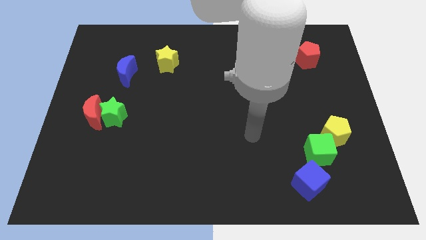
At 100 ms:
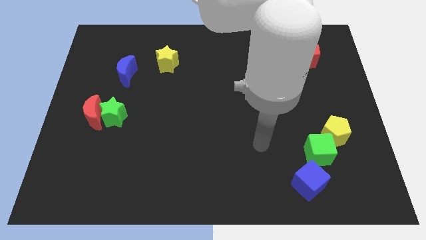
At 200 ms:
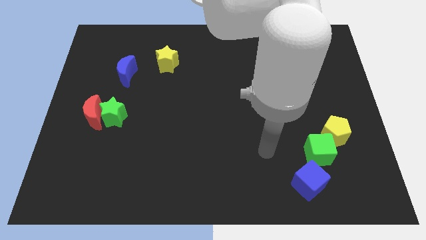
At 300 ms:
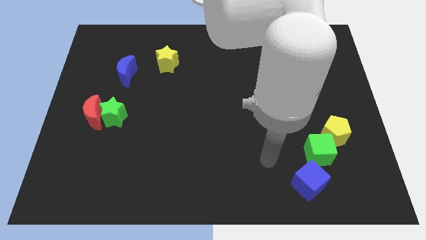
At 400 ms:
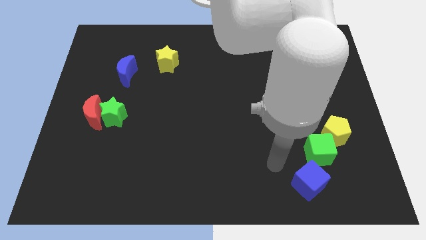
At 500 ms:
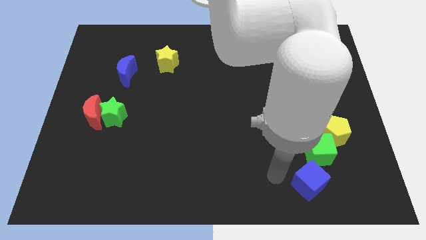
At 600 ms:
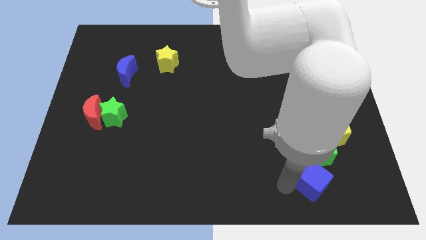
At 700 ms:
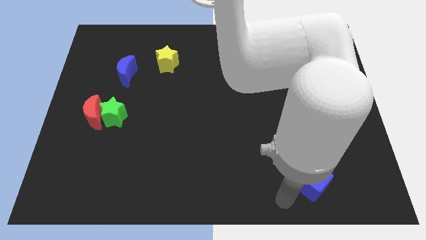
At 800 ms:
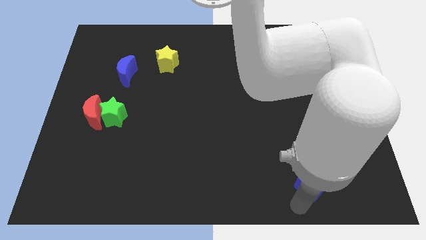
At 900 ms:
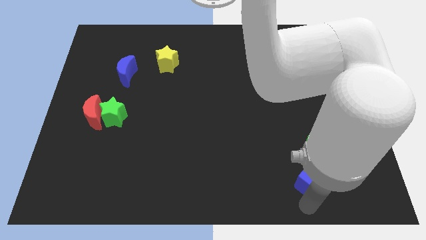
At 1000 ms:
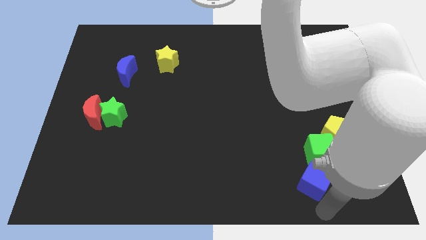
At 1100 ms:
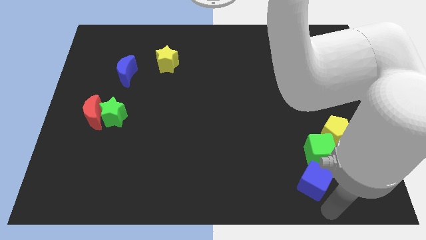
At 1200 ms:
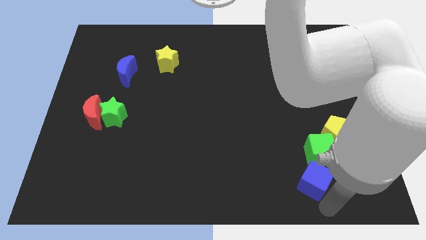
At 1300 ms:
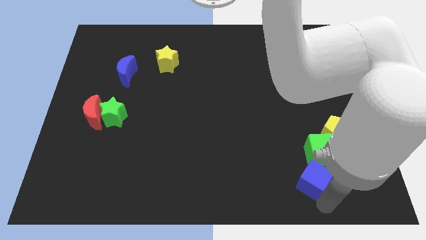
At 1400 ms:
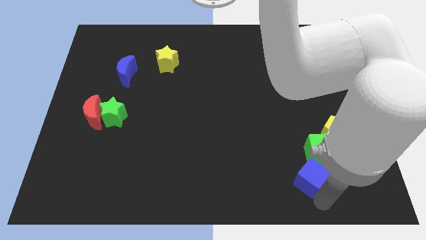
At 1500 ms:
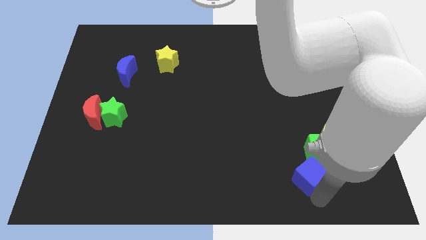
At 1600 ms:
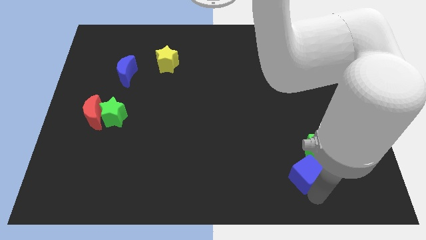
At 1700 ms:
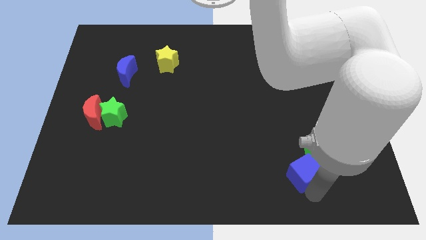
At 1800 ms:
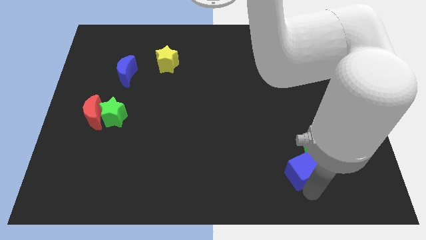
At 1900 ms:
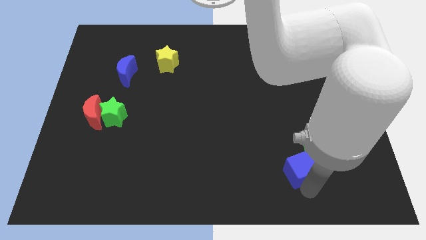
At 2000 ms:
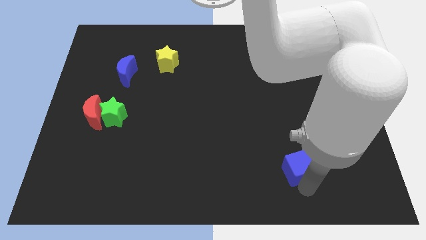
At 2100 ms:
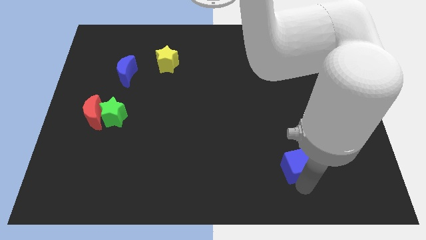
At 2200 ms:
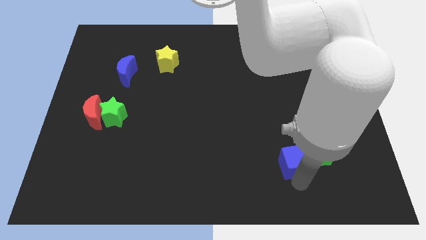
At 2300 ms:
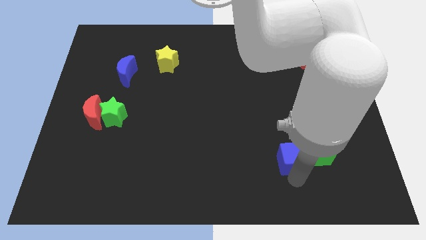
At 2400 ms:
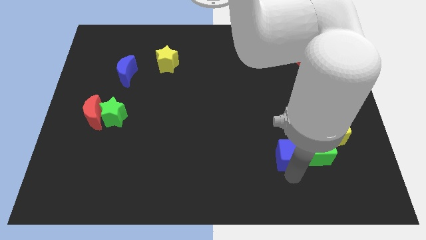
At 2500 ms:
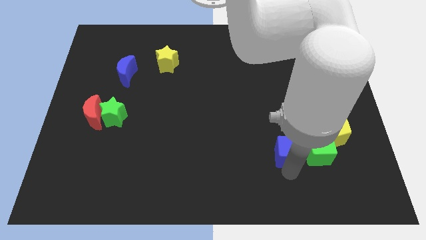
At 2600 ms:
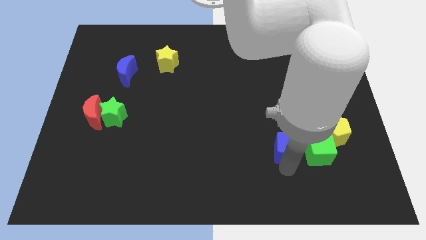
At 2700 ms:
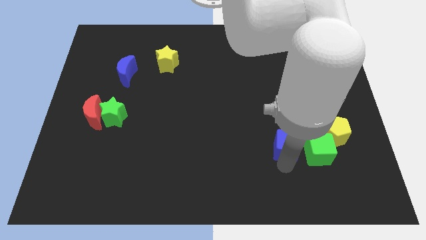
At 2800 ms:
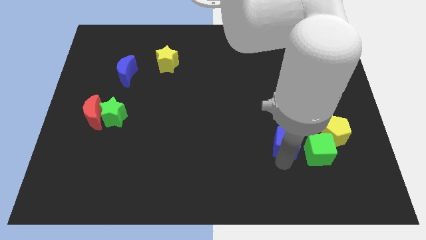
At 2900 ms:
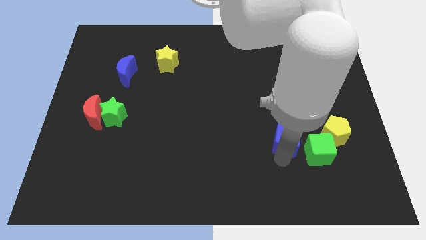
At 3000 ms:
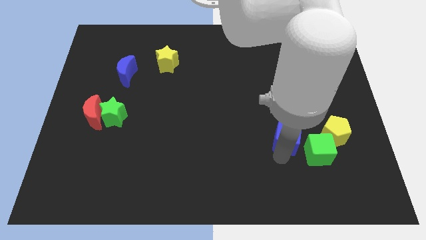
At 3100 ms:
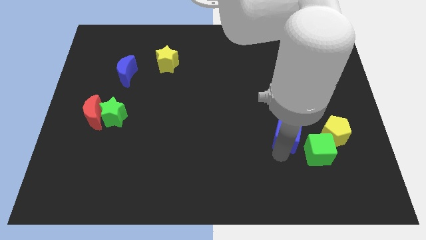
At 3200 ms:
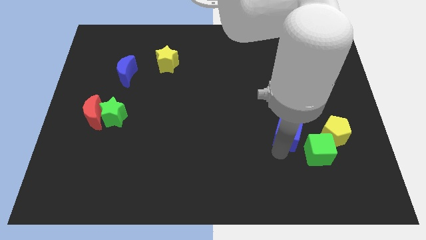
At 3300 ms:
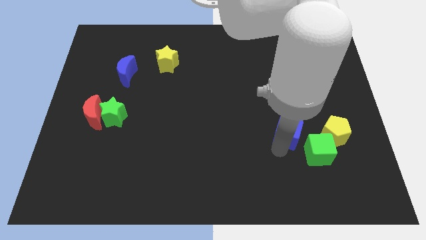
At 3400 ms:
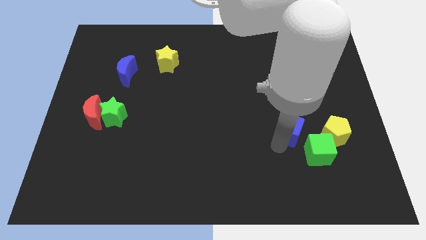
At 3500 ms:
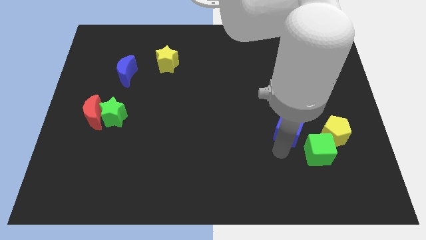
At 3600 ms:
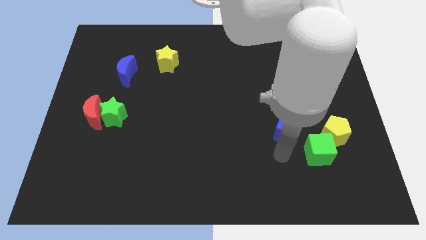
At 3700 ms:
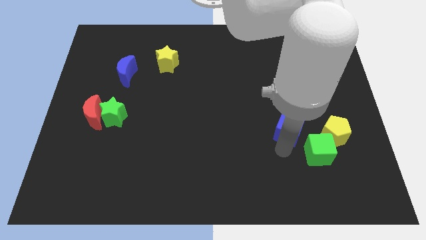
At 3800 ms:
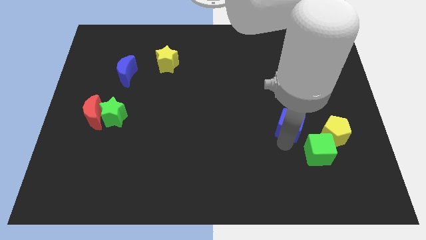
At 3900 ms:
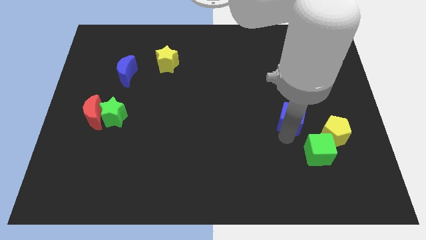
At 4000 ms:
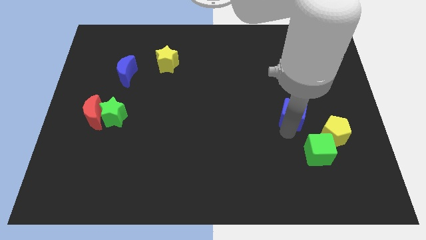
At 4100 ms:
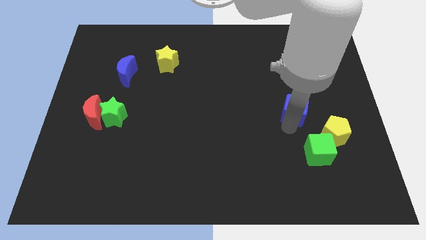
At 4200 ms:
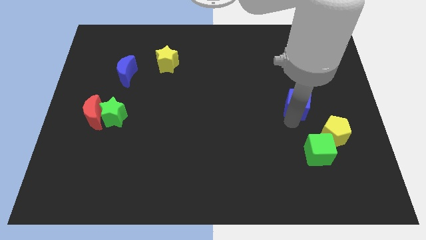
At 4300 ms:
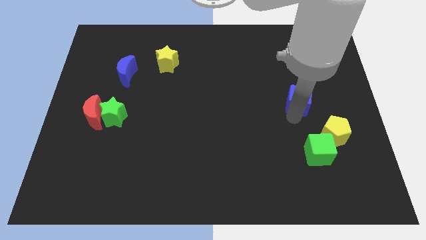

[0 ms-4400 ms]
push the blue cube upwards

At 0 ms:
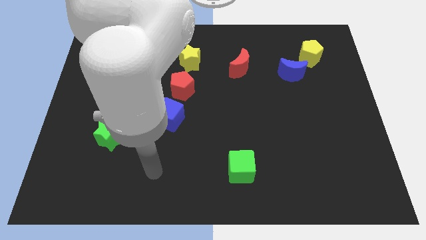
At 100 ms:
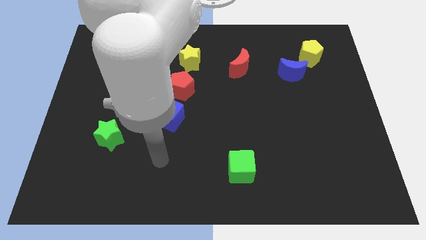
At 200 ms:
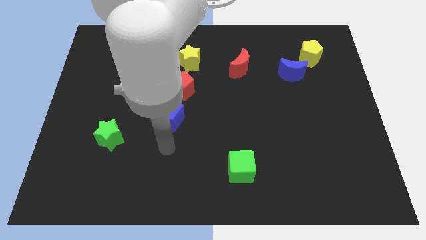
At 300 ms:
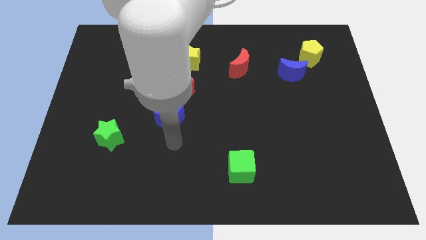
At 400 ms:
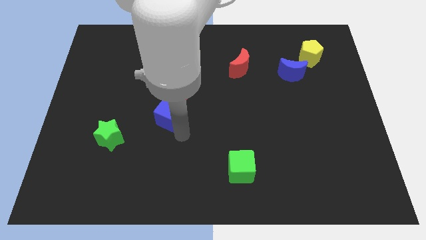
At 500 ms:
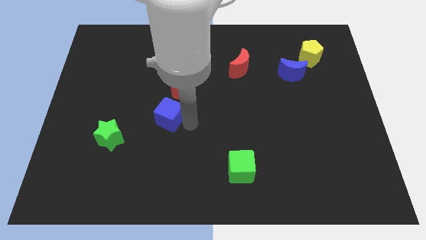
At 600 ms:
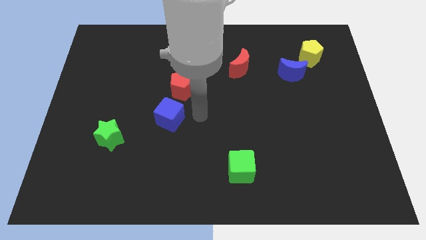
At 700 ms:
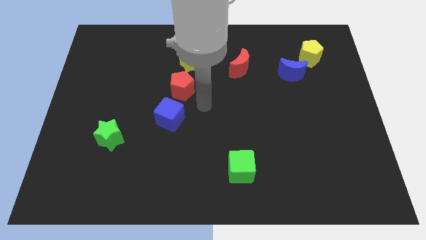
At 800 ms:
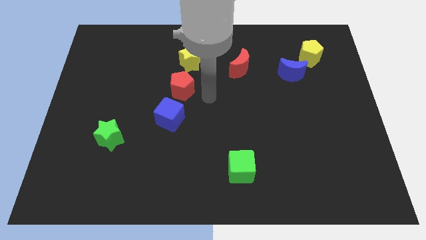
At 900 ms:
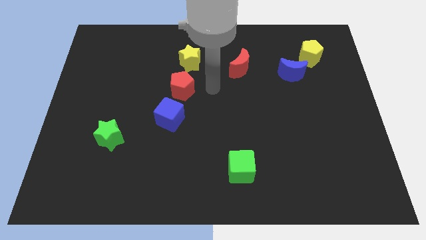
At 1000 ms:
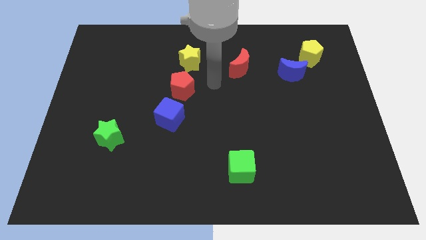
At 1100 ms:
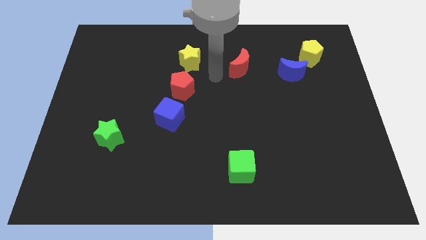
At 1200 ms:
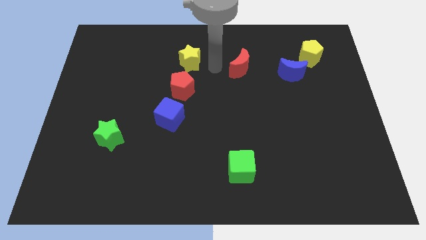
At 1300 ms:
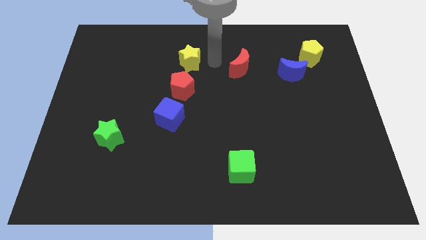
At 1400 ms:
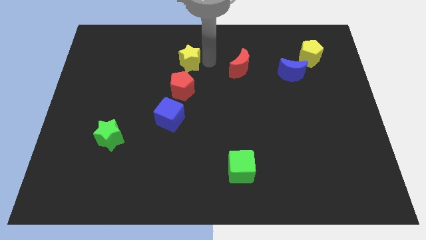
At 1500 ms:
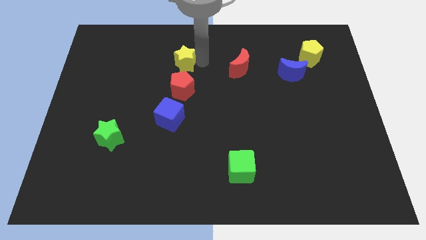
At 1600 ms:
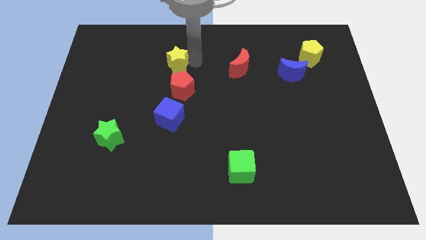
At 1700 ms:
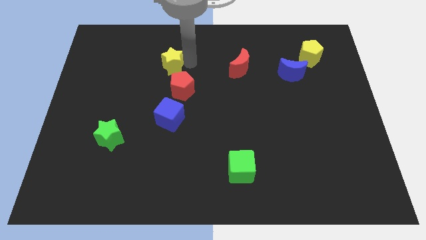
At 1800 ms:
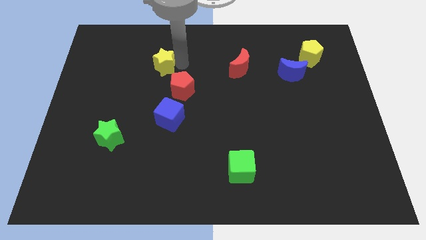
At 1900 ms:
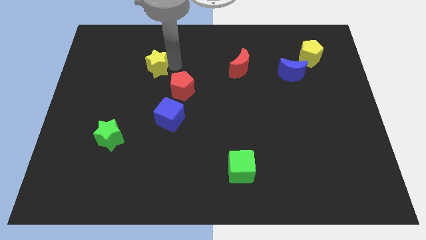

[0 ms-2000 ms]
slide the yellow star a little bit to the left

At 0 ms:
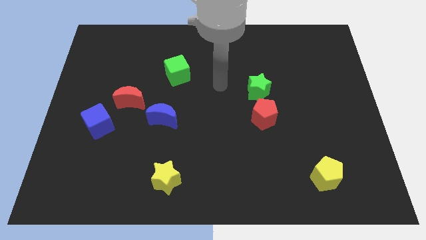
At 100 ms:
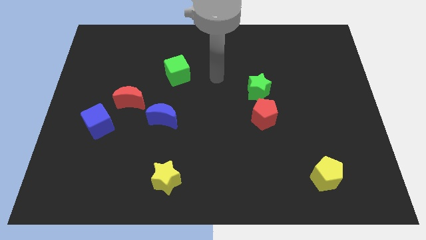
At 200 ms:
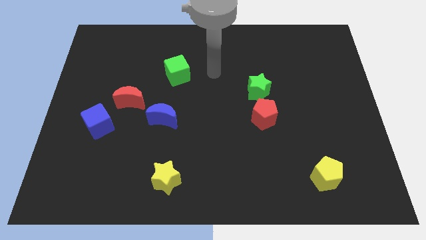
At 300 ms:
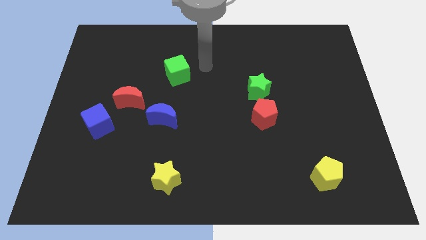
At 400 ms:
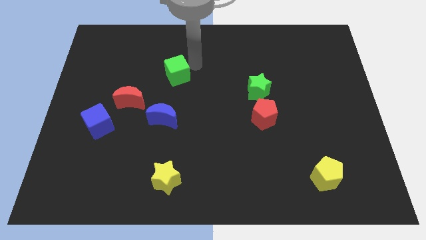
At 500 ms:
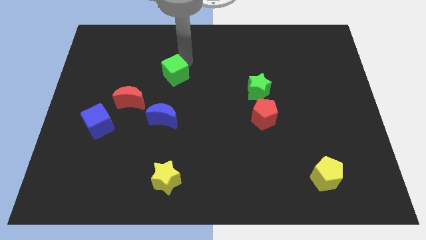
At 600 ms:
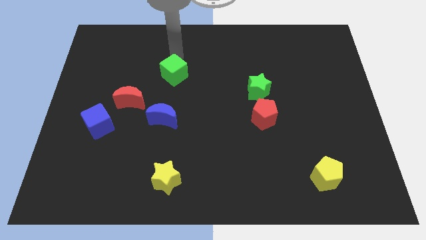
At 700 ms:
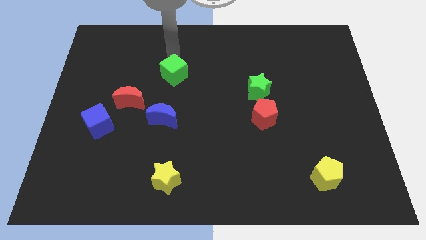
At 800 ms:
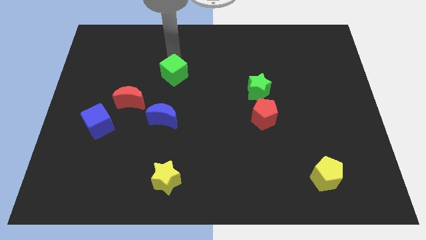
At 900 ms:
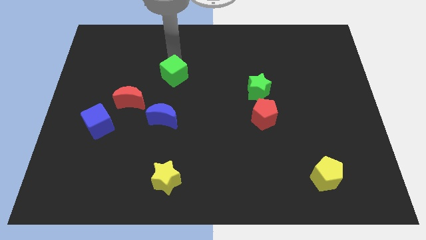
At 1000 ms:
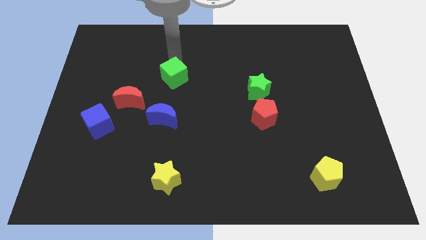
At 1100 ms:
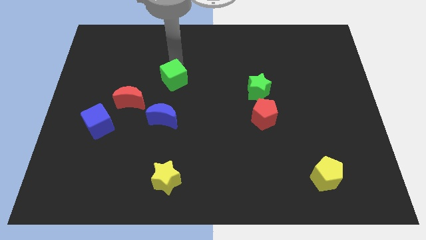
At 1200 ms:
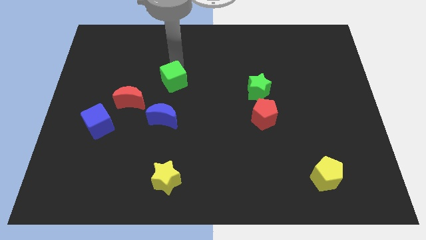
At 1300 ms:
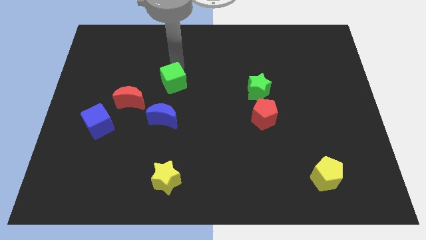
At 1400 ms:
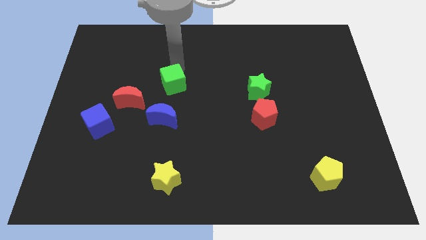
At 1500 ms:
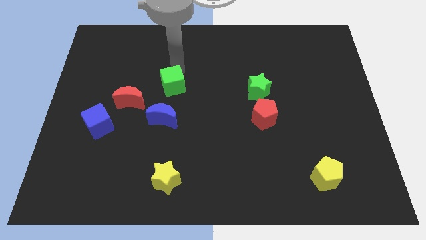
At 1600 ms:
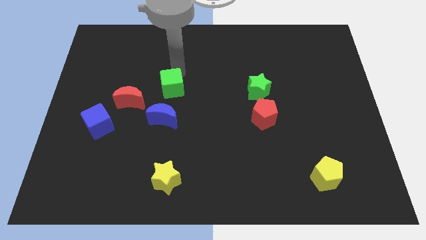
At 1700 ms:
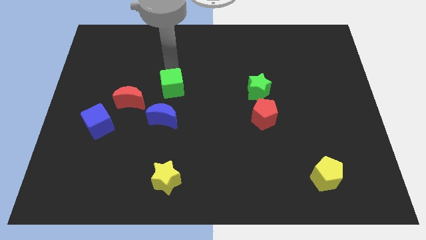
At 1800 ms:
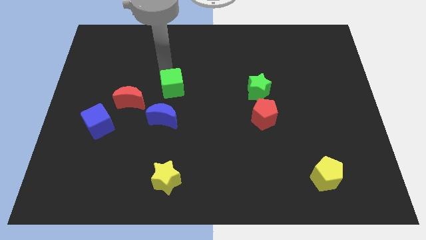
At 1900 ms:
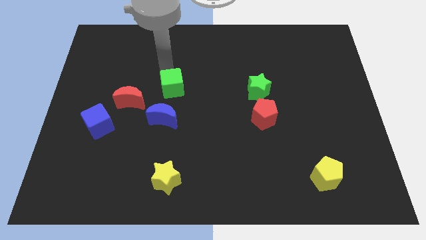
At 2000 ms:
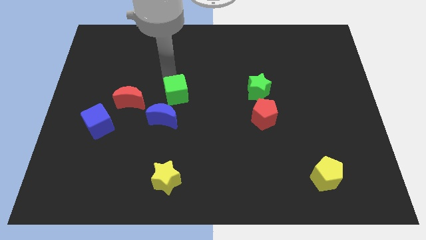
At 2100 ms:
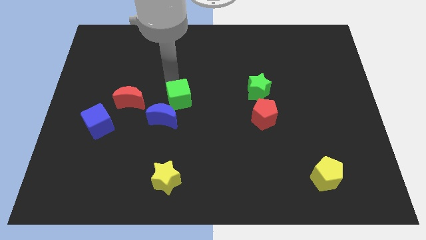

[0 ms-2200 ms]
move the green cube a little bit down
